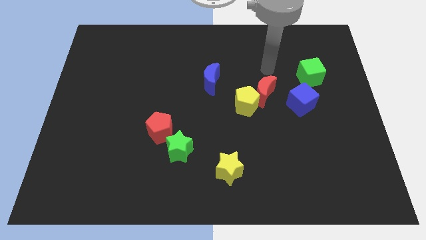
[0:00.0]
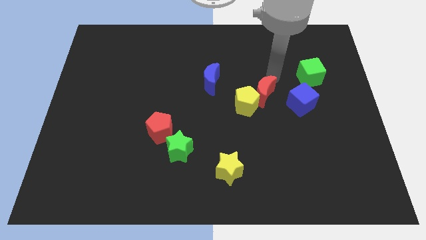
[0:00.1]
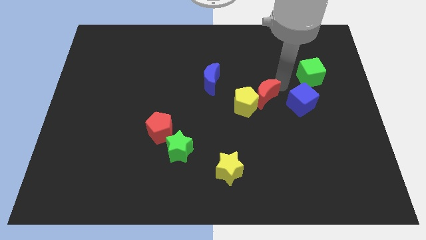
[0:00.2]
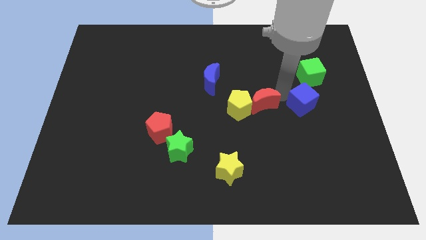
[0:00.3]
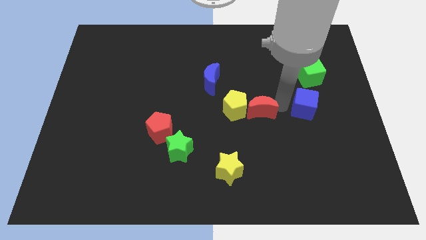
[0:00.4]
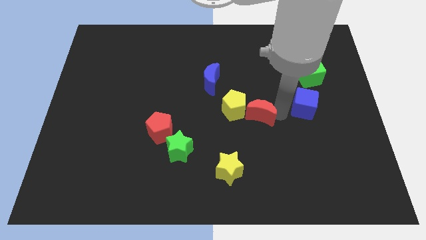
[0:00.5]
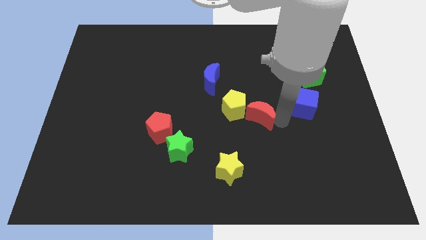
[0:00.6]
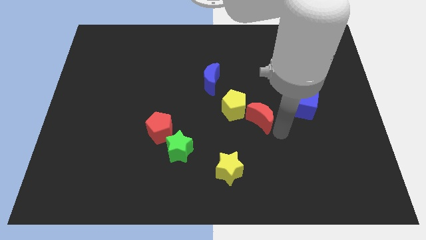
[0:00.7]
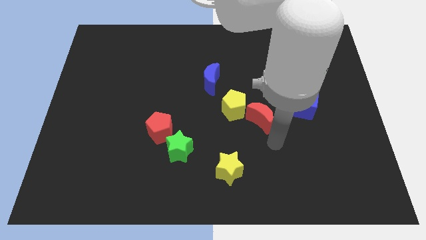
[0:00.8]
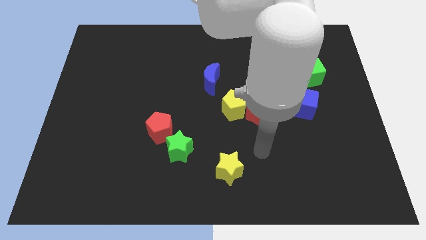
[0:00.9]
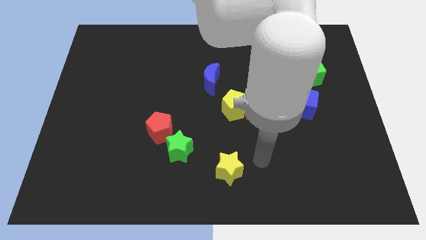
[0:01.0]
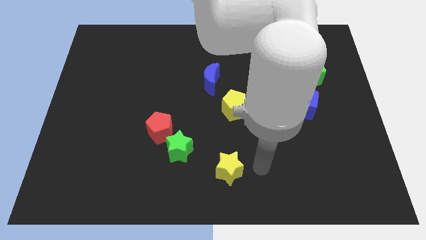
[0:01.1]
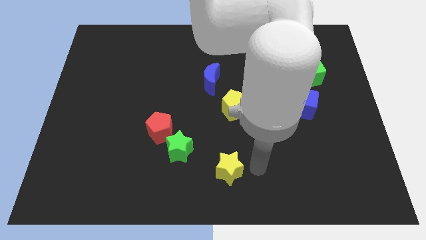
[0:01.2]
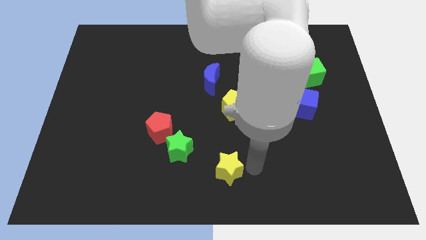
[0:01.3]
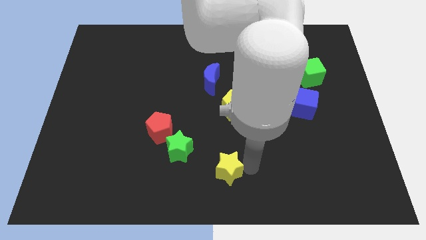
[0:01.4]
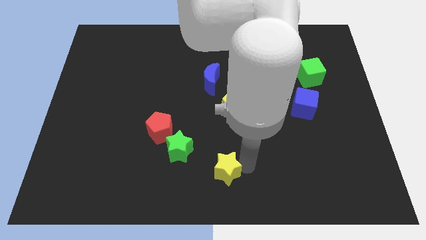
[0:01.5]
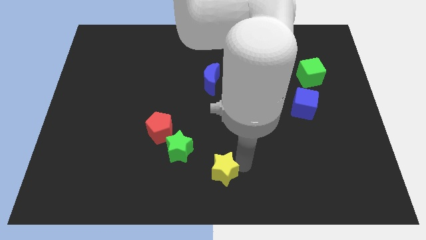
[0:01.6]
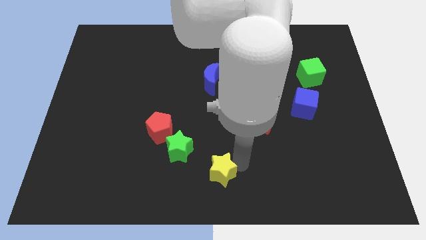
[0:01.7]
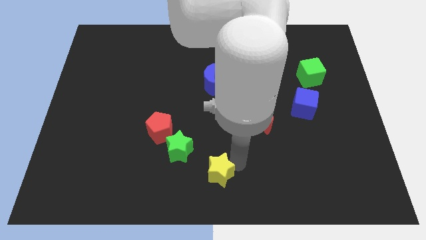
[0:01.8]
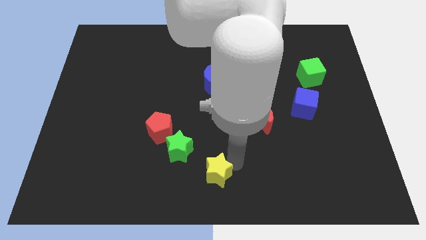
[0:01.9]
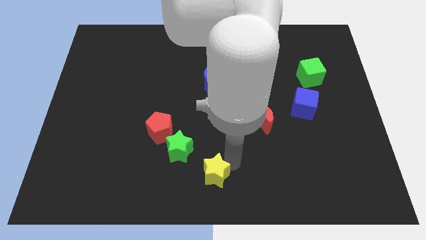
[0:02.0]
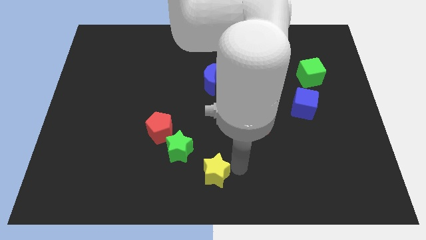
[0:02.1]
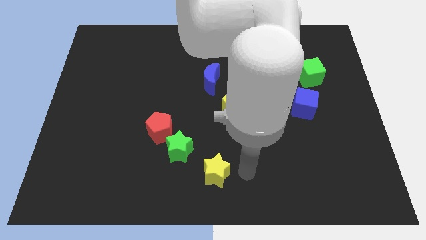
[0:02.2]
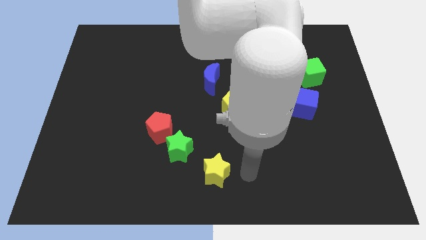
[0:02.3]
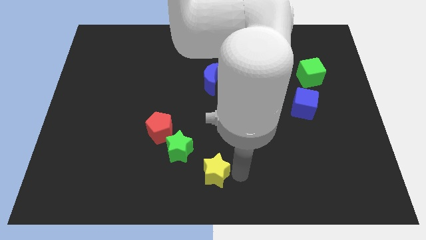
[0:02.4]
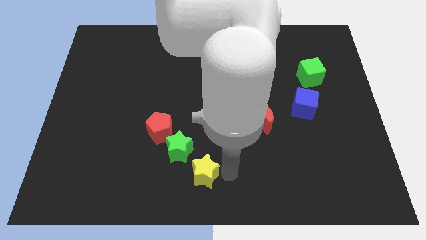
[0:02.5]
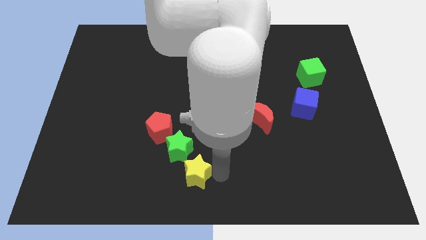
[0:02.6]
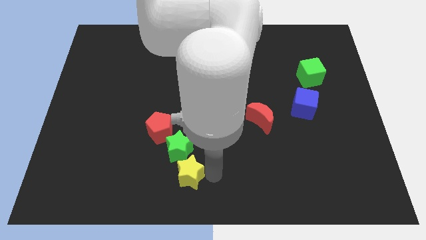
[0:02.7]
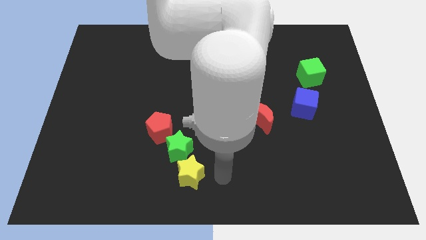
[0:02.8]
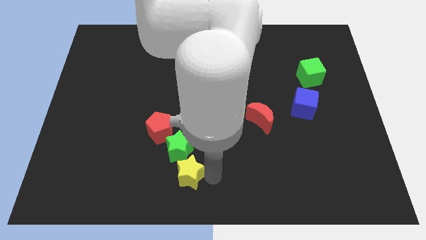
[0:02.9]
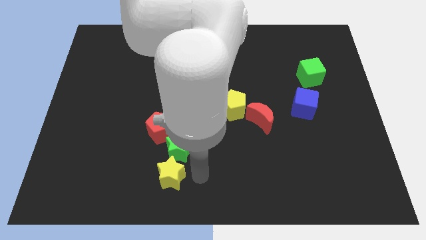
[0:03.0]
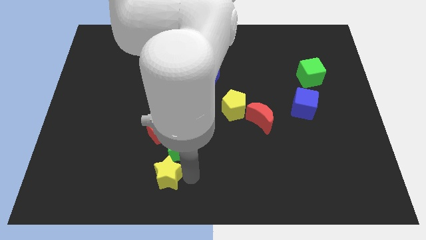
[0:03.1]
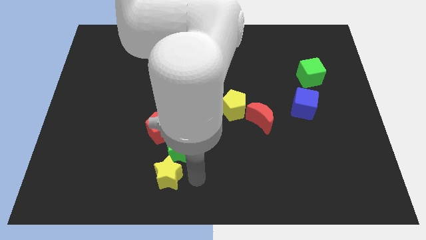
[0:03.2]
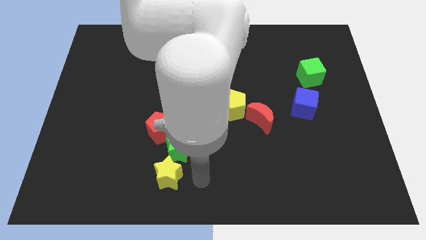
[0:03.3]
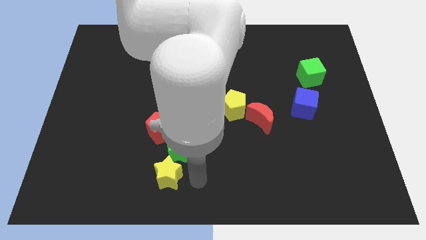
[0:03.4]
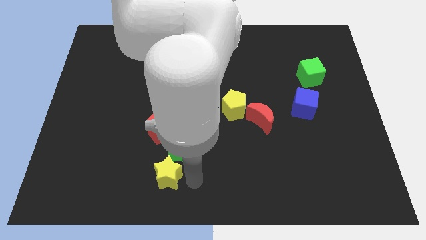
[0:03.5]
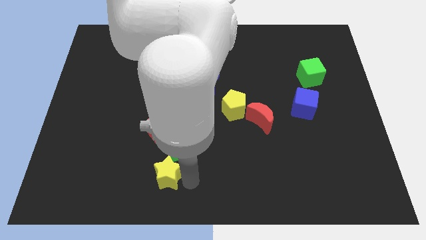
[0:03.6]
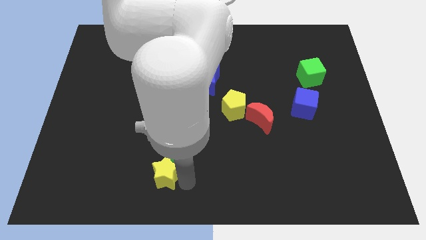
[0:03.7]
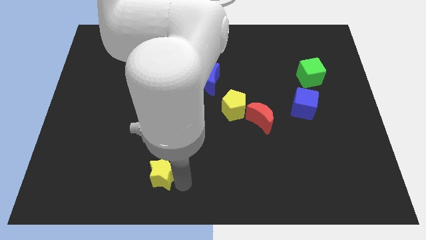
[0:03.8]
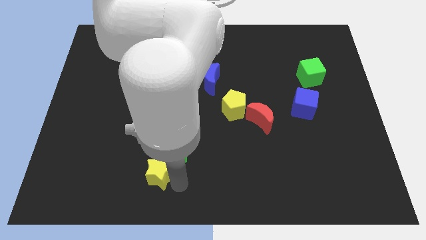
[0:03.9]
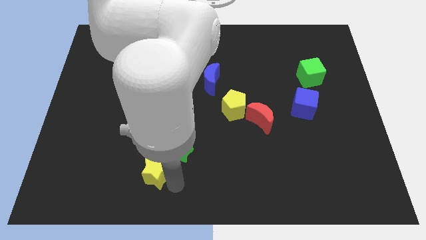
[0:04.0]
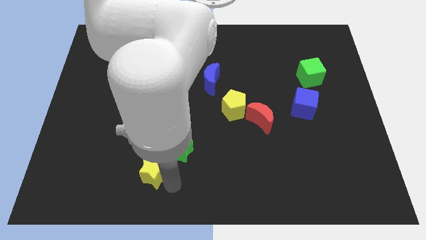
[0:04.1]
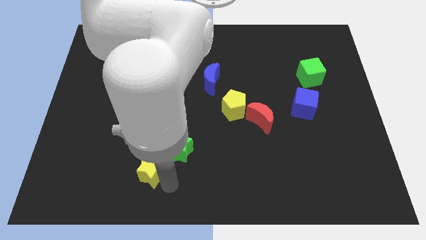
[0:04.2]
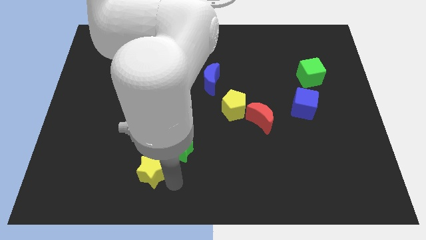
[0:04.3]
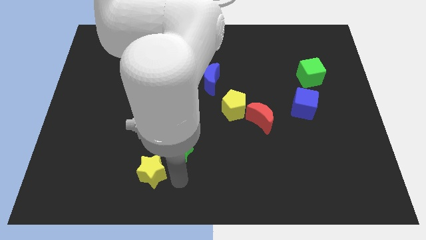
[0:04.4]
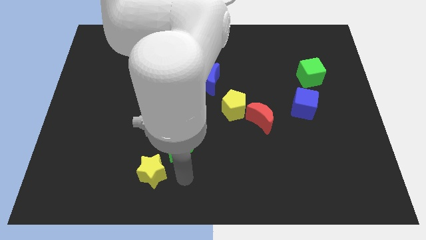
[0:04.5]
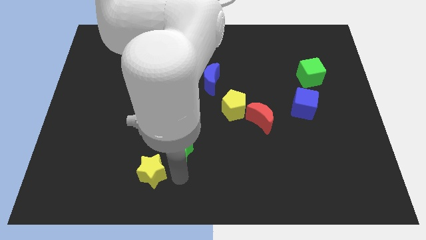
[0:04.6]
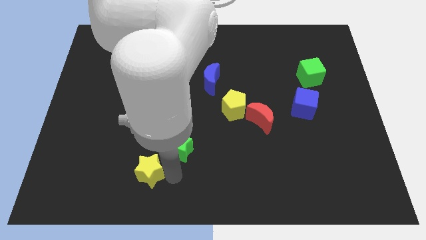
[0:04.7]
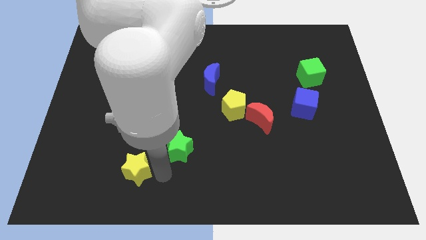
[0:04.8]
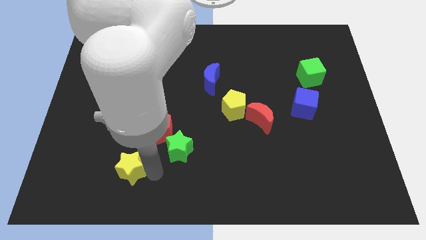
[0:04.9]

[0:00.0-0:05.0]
slide the yellow star to the left

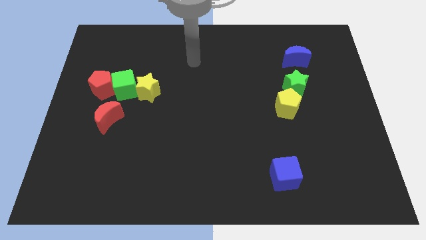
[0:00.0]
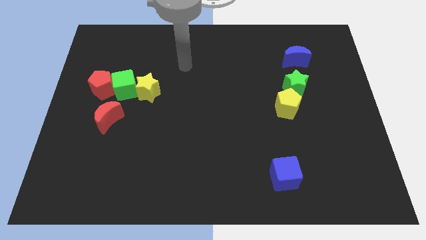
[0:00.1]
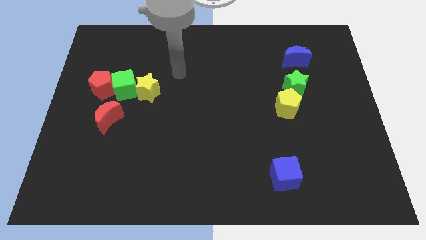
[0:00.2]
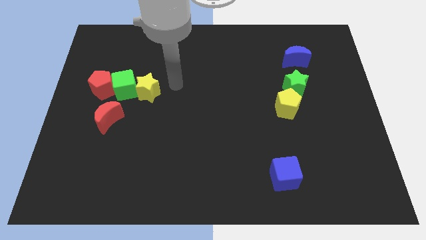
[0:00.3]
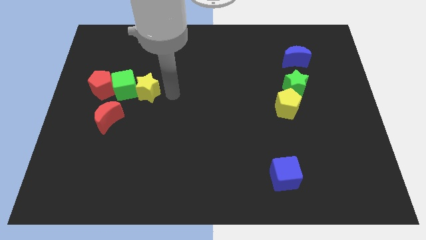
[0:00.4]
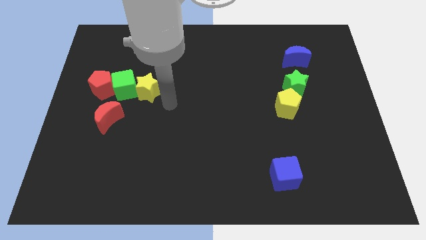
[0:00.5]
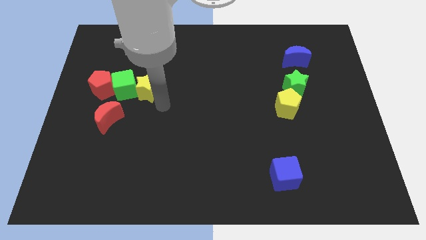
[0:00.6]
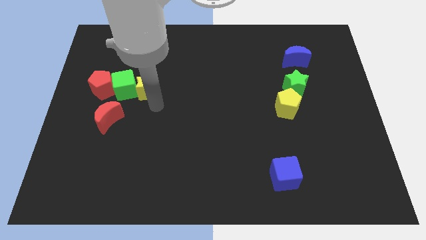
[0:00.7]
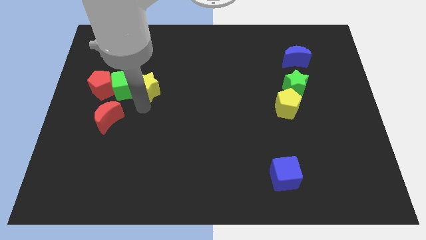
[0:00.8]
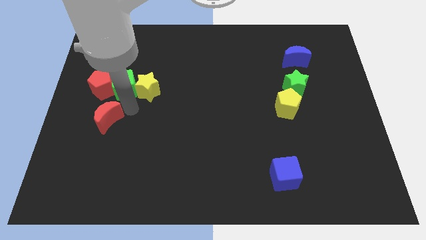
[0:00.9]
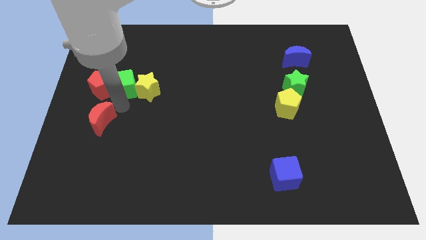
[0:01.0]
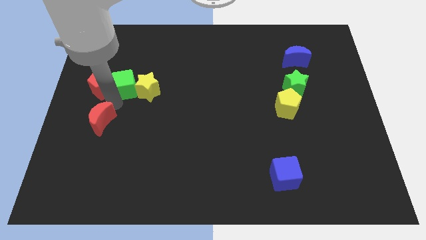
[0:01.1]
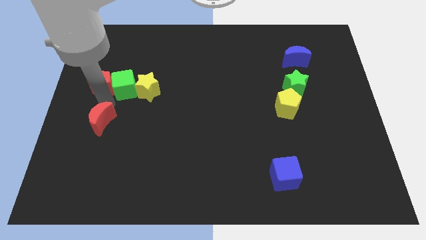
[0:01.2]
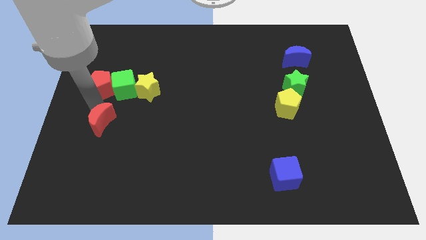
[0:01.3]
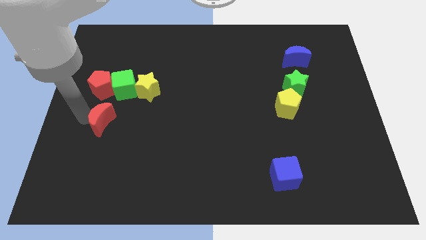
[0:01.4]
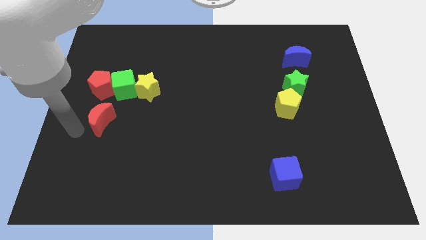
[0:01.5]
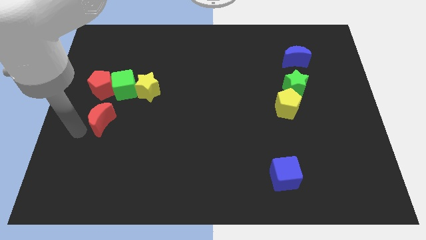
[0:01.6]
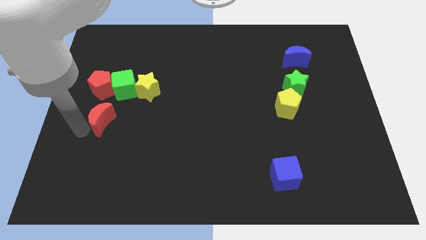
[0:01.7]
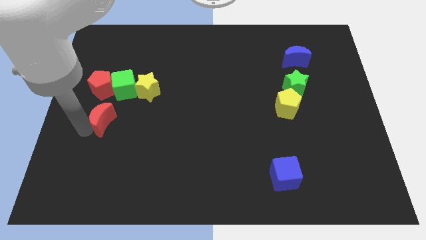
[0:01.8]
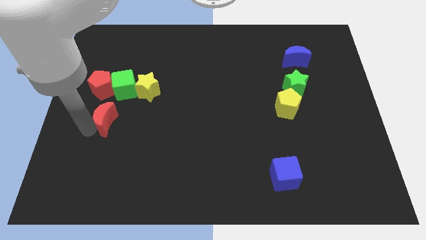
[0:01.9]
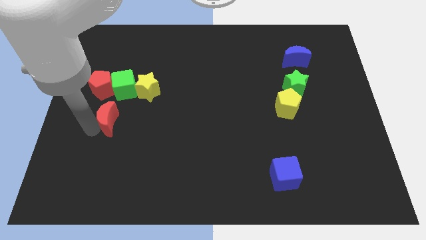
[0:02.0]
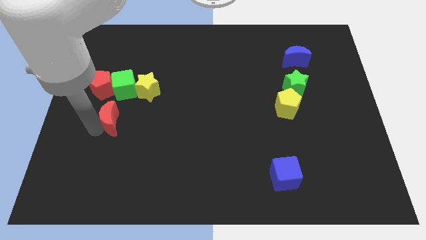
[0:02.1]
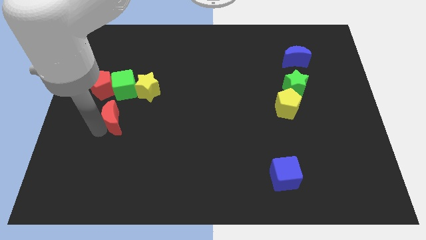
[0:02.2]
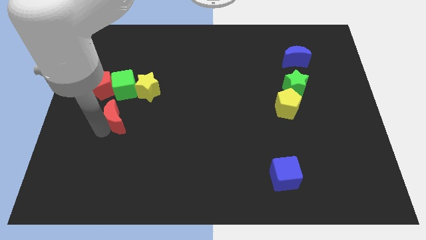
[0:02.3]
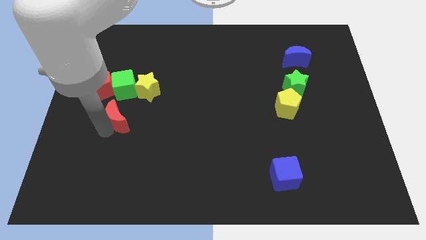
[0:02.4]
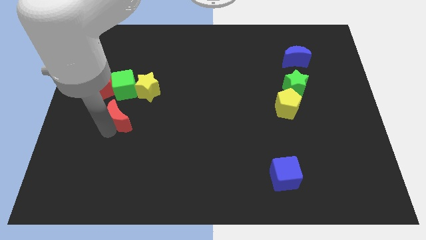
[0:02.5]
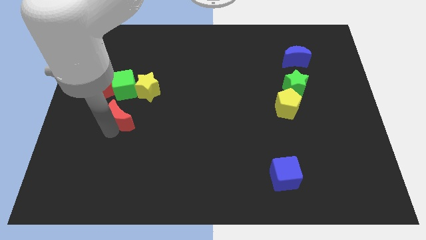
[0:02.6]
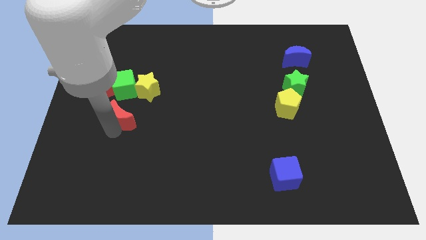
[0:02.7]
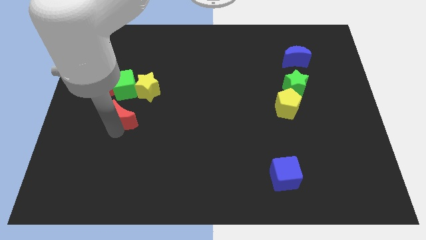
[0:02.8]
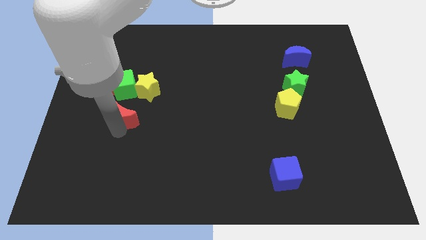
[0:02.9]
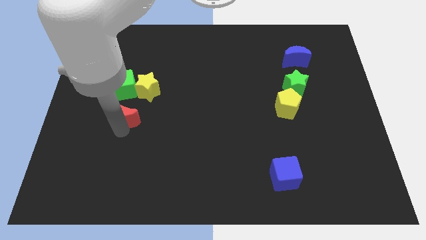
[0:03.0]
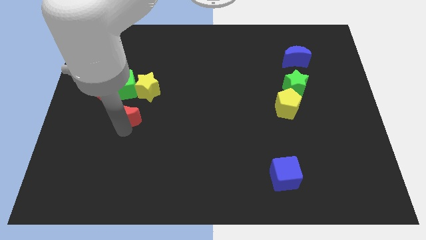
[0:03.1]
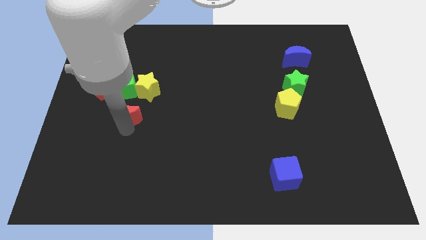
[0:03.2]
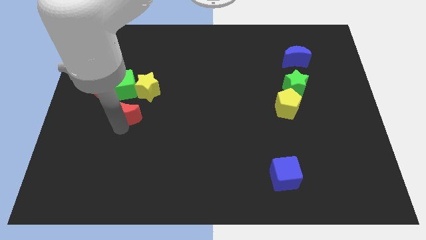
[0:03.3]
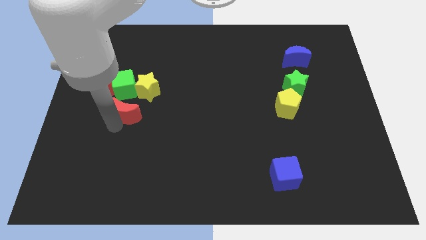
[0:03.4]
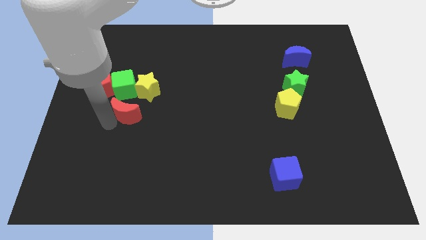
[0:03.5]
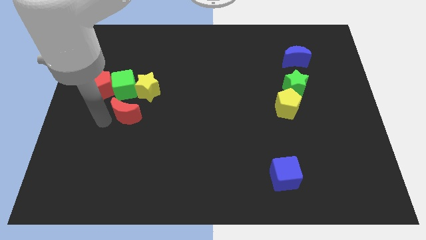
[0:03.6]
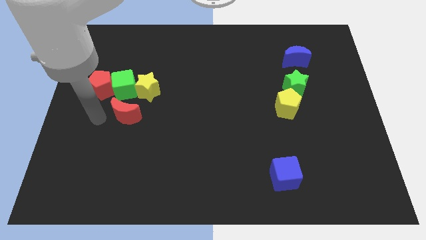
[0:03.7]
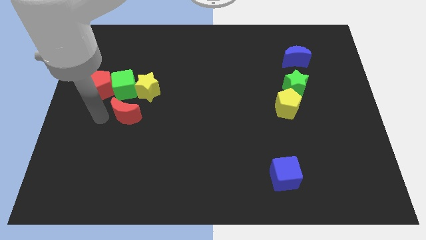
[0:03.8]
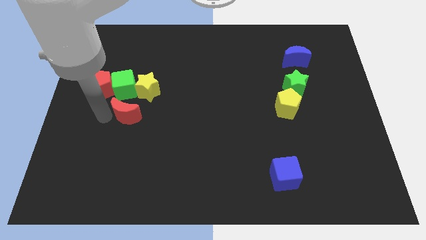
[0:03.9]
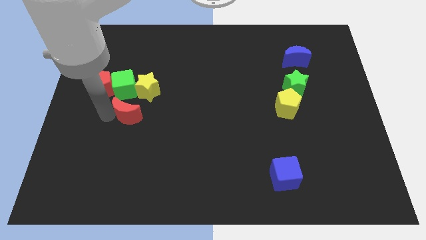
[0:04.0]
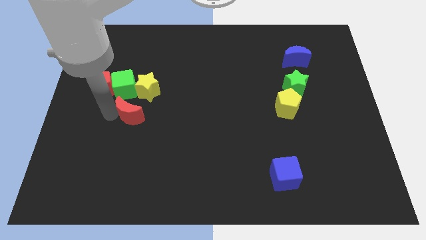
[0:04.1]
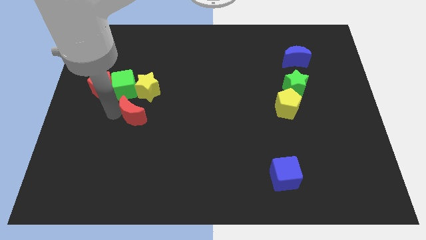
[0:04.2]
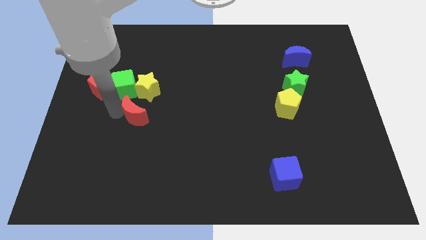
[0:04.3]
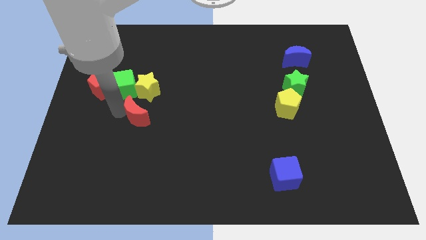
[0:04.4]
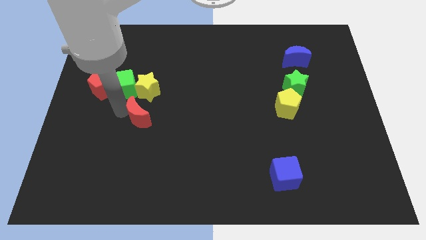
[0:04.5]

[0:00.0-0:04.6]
slide the red moon somewhat to the right
